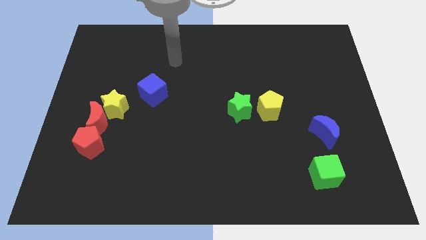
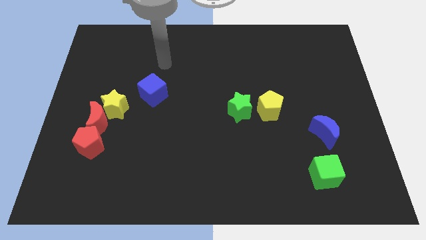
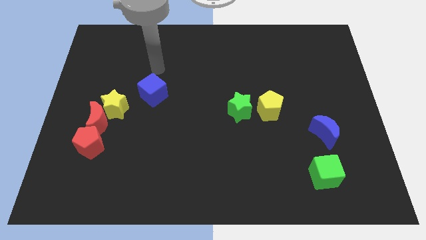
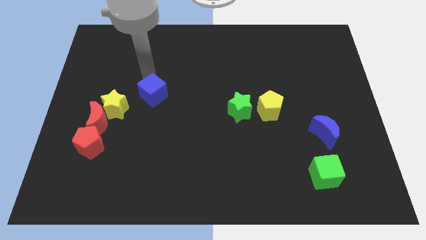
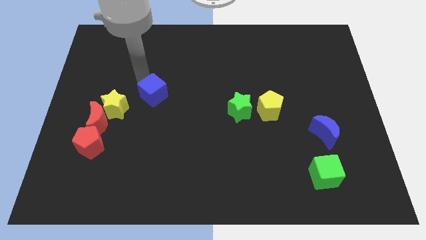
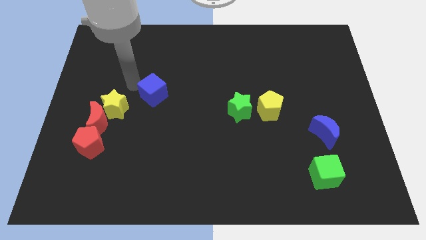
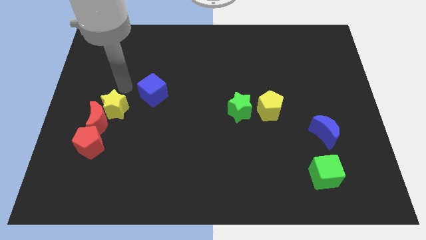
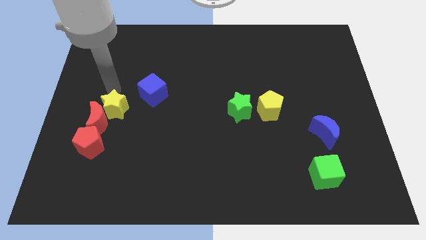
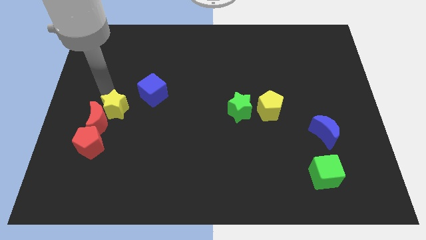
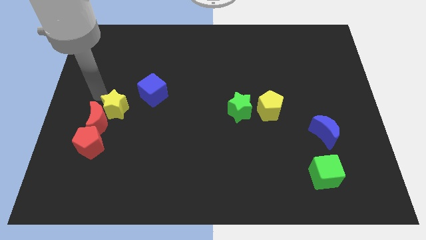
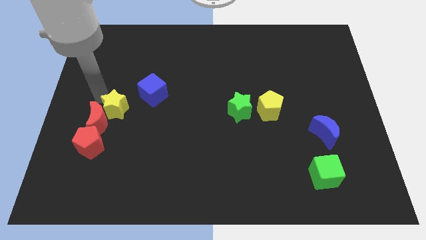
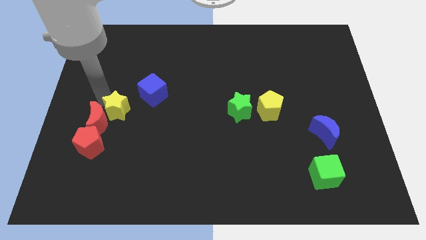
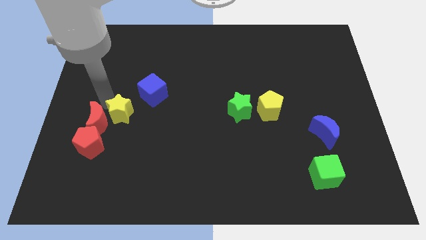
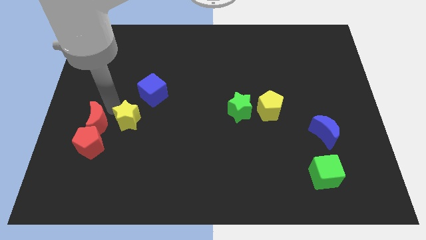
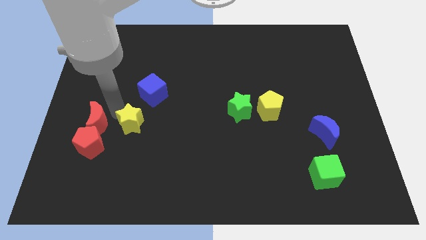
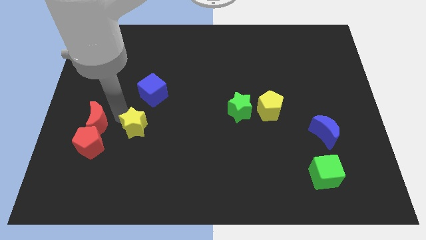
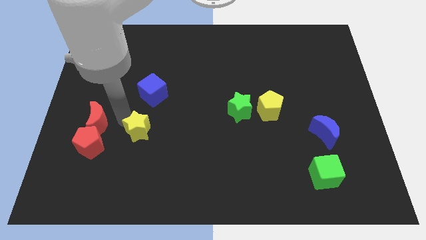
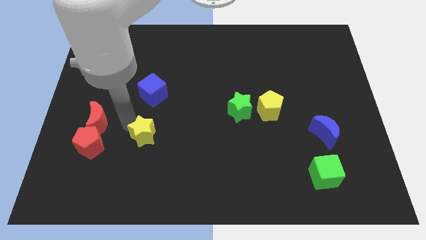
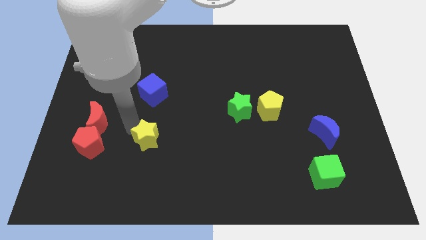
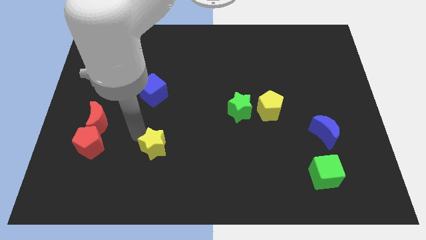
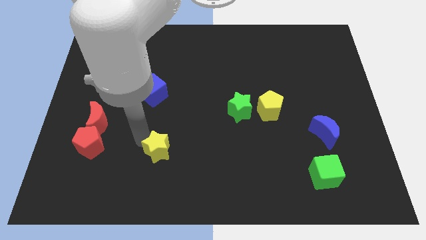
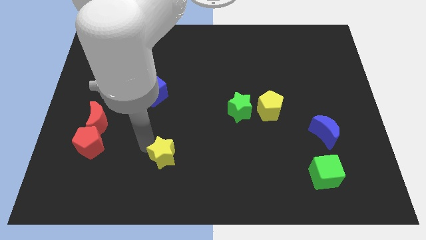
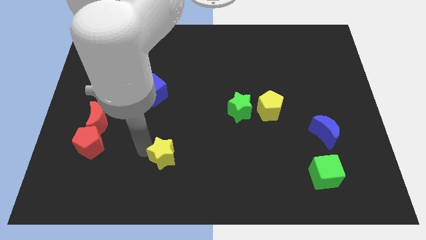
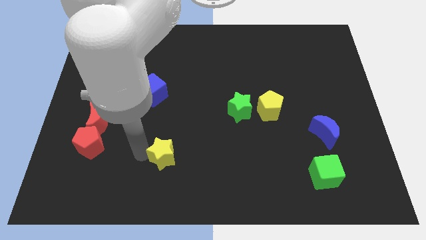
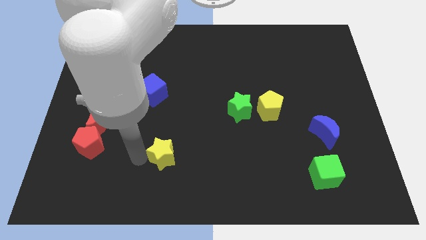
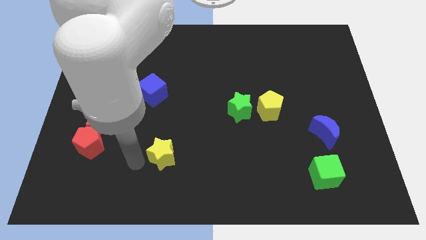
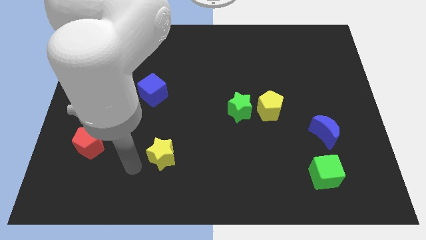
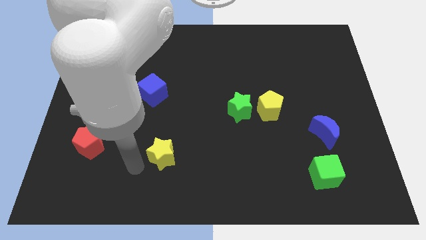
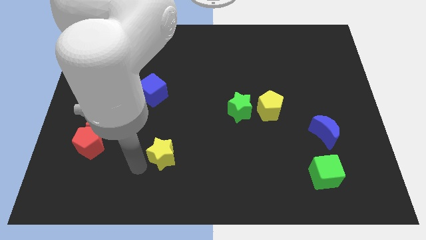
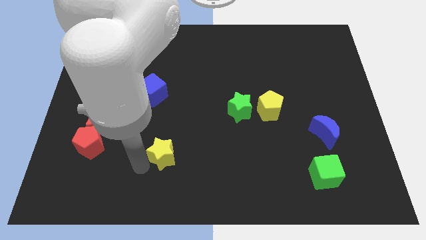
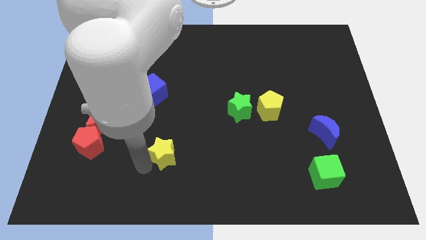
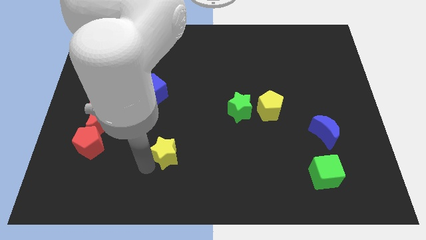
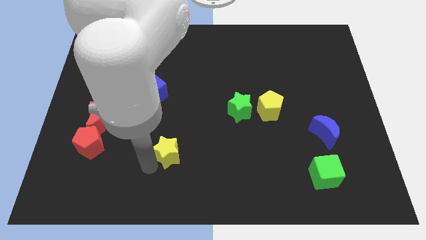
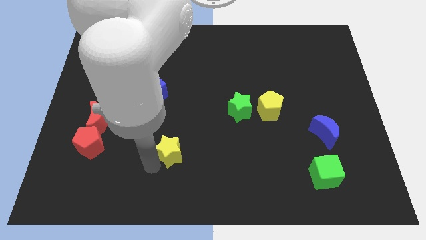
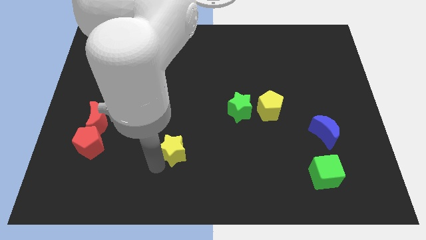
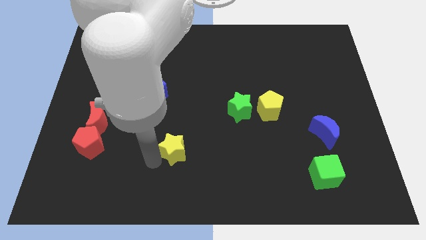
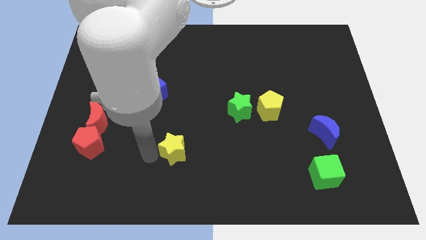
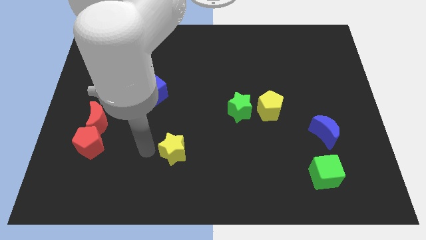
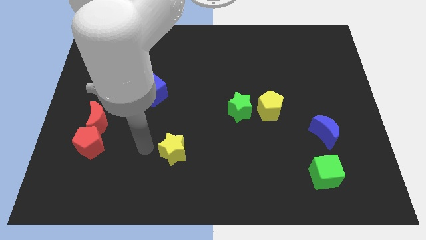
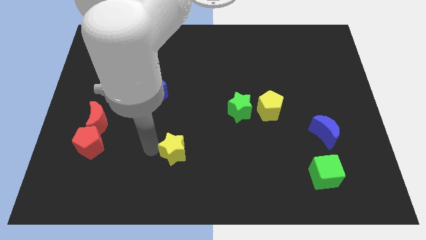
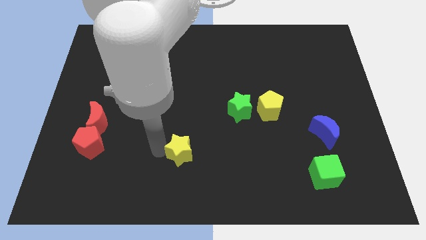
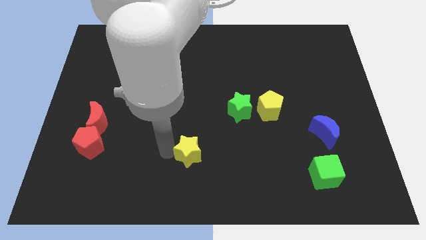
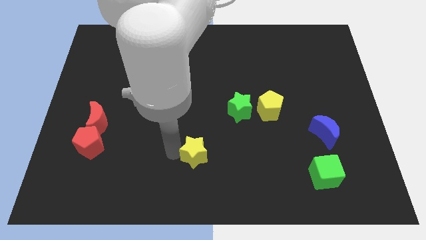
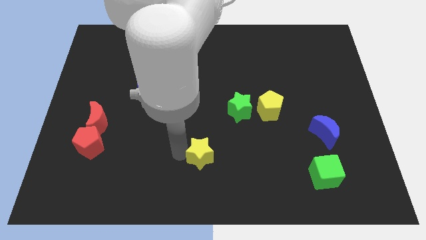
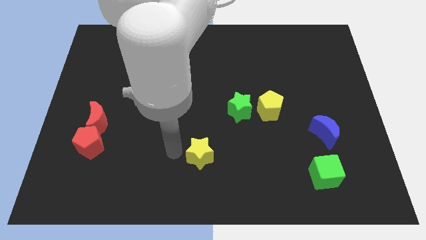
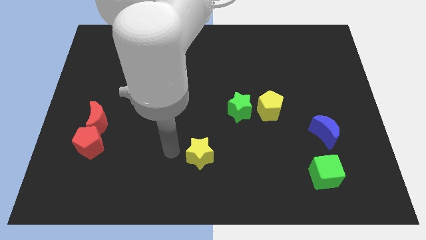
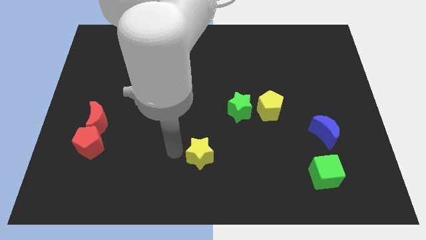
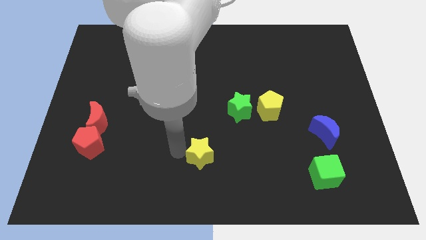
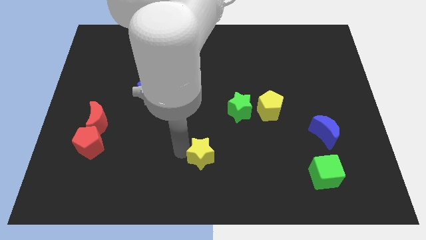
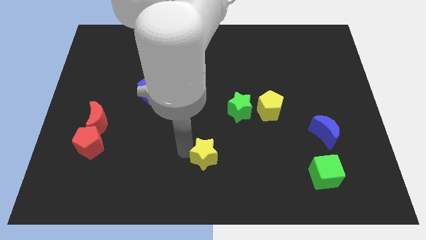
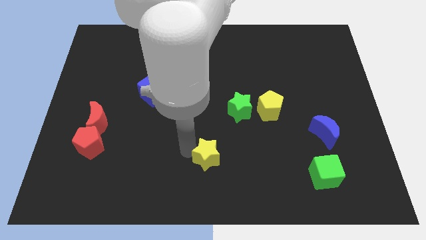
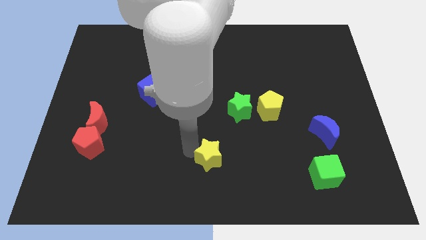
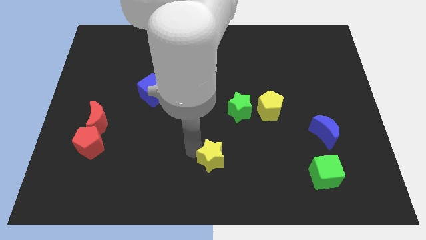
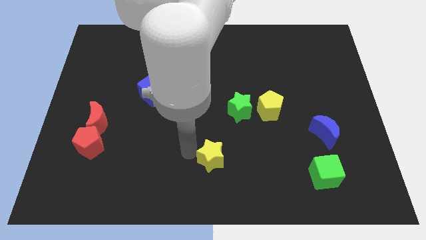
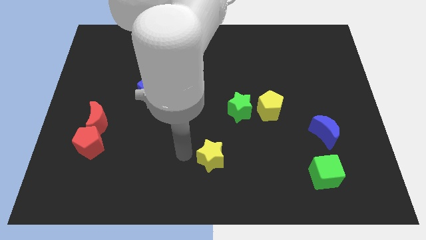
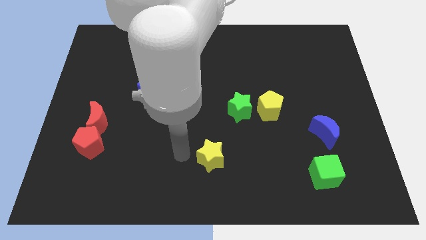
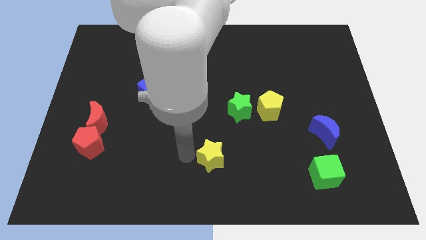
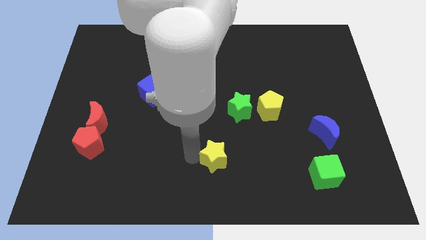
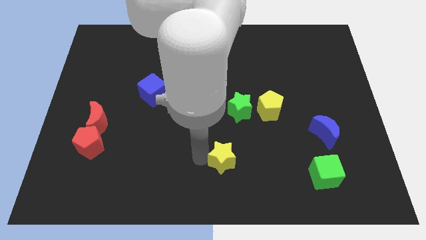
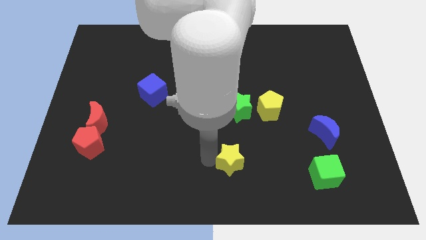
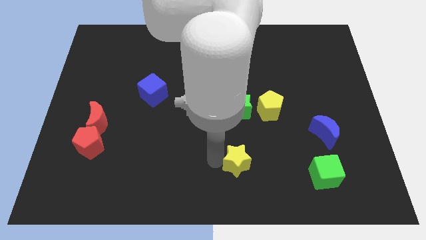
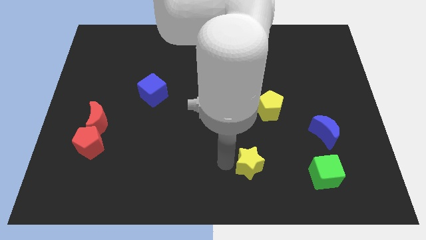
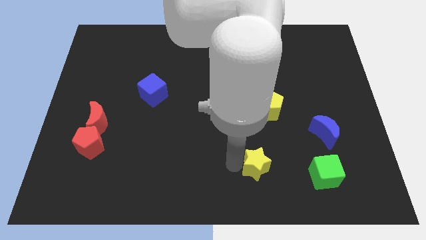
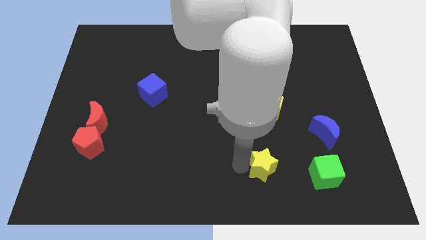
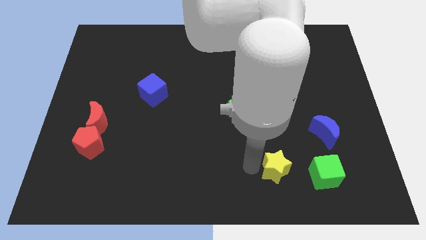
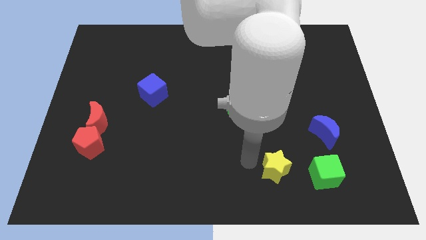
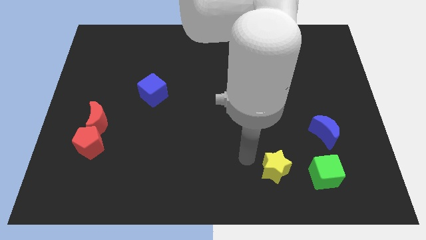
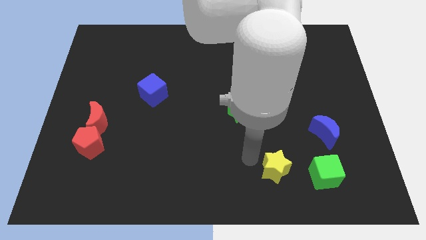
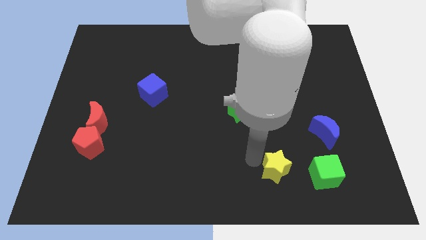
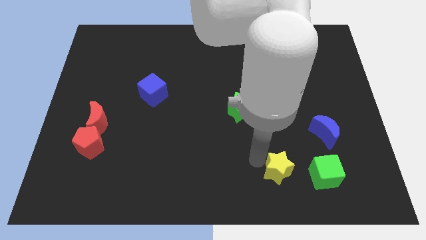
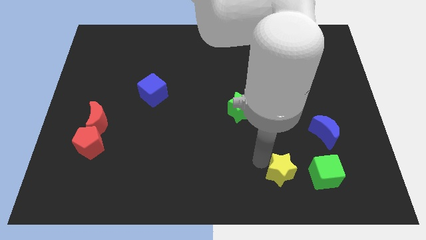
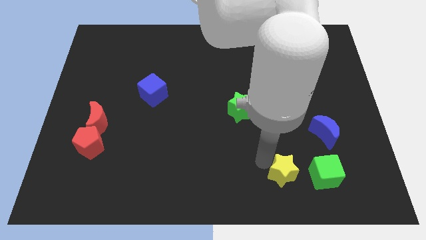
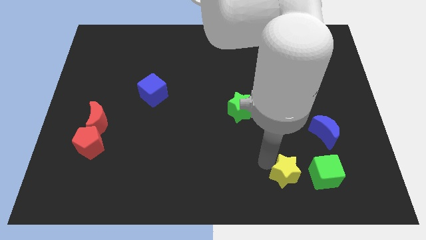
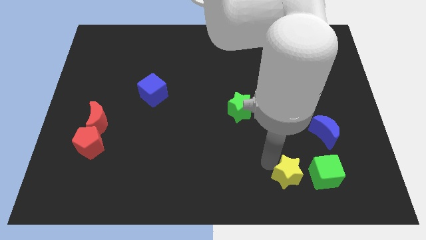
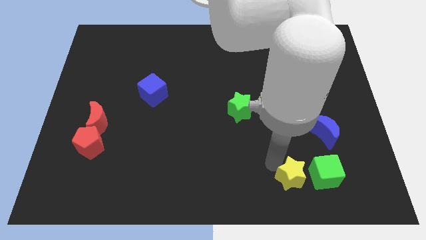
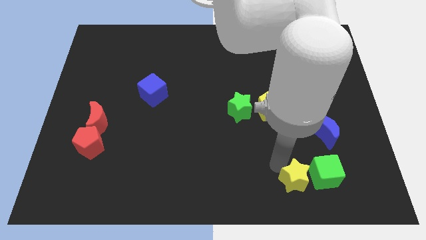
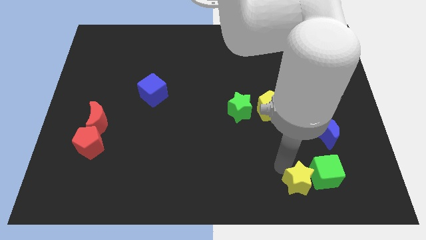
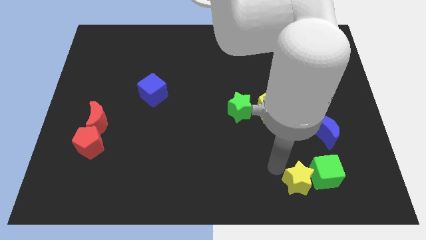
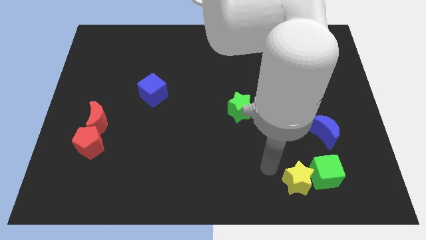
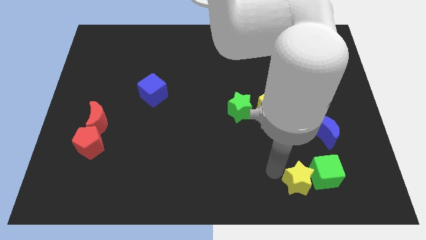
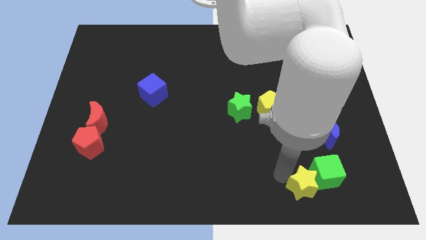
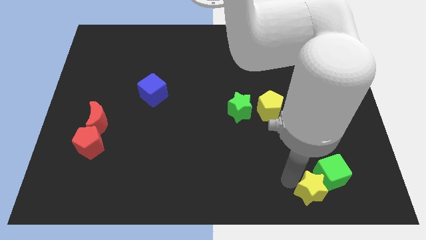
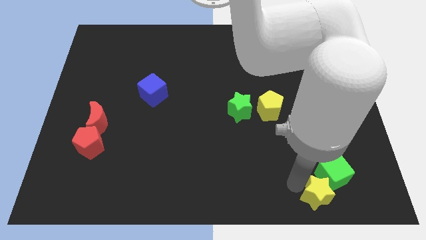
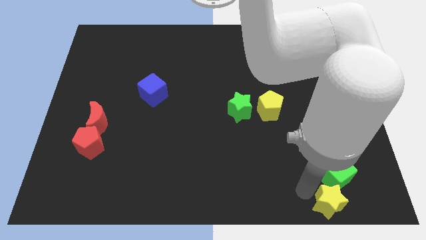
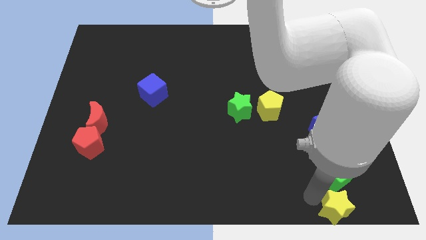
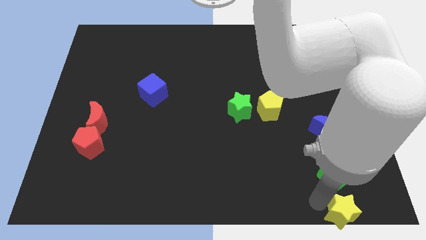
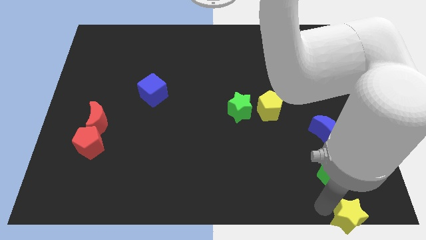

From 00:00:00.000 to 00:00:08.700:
slide the yellow star to the lower right corner
